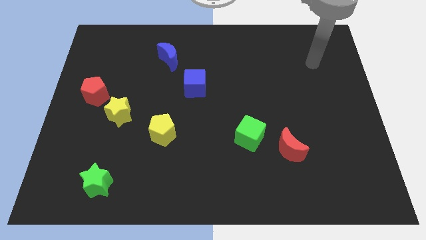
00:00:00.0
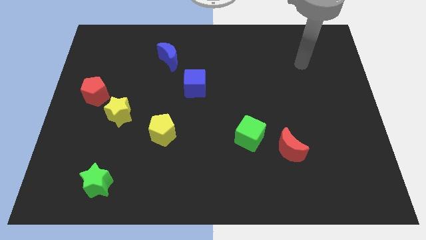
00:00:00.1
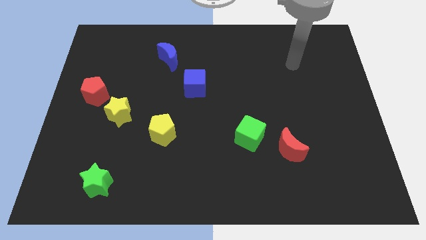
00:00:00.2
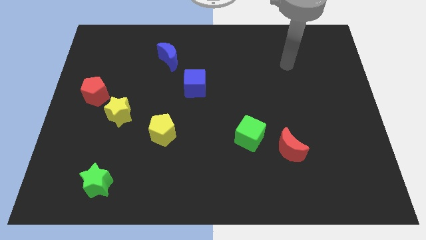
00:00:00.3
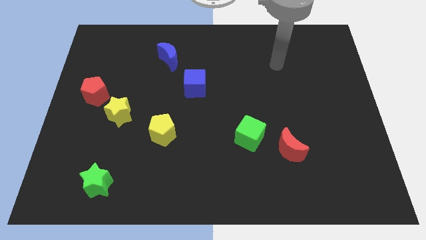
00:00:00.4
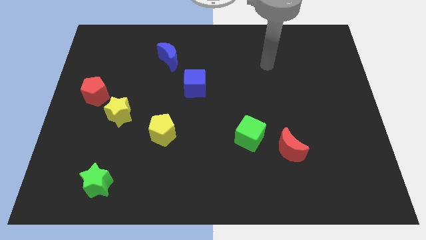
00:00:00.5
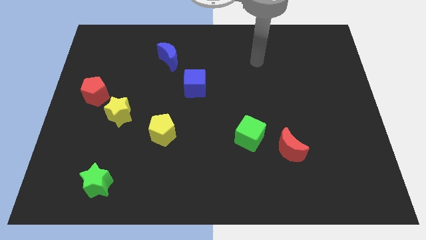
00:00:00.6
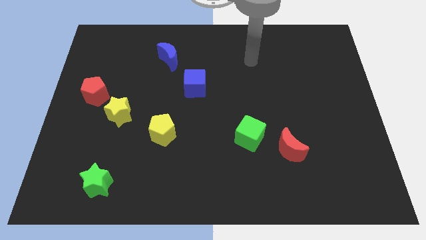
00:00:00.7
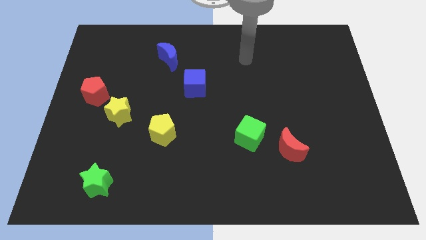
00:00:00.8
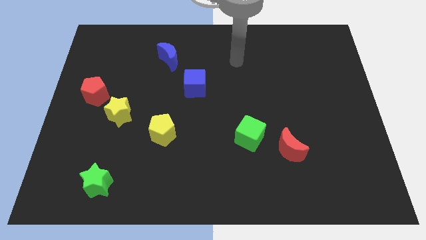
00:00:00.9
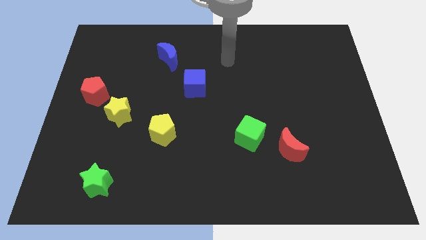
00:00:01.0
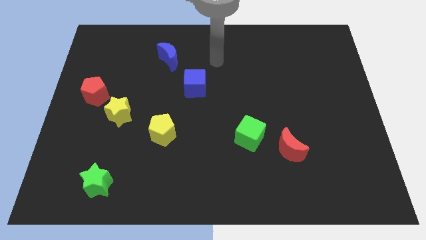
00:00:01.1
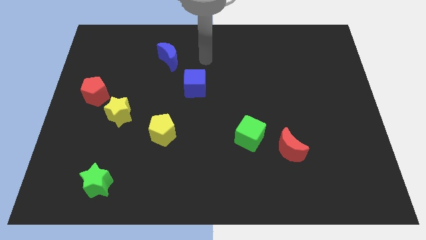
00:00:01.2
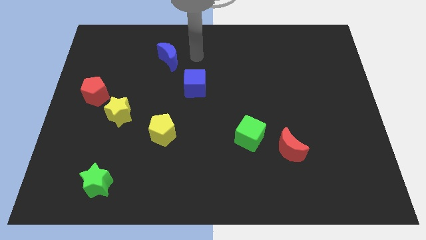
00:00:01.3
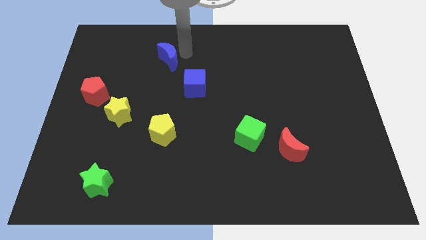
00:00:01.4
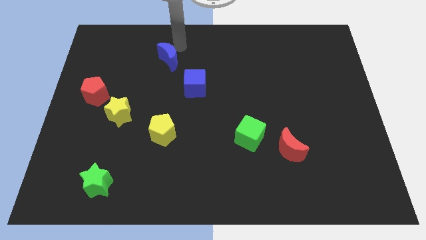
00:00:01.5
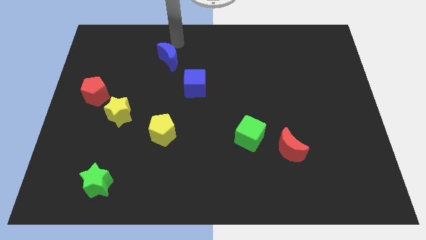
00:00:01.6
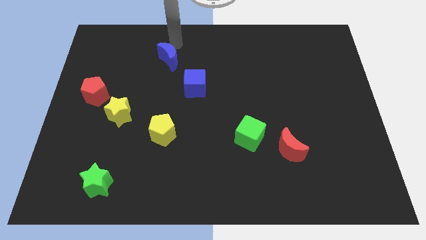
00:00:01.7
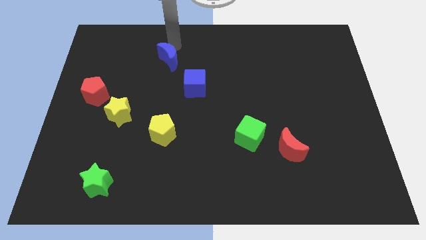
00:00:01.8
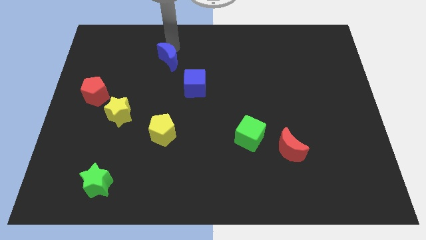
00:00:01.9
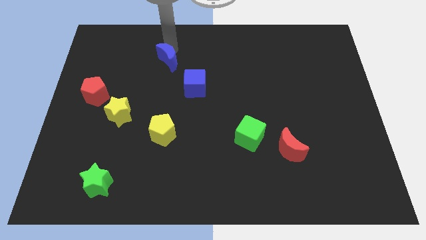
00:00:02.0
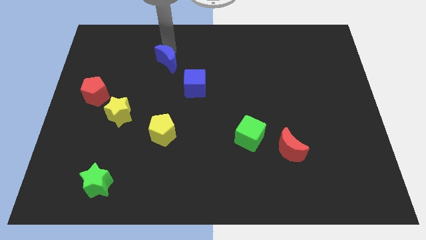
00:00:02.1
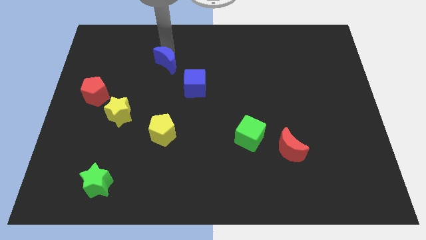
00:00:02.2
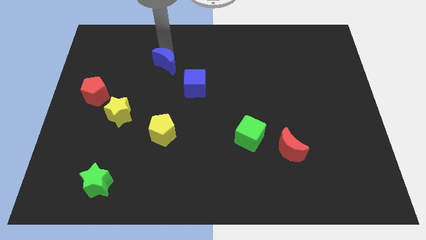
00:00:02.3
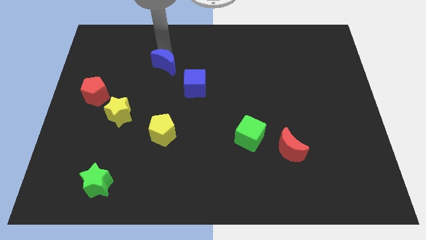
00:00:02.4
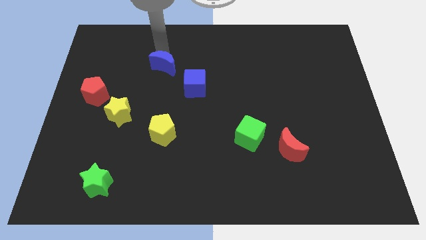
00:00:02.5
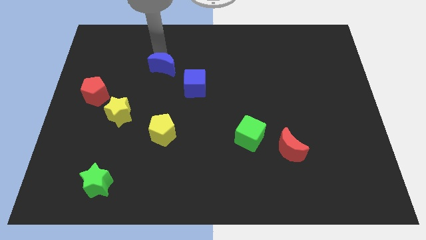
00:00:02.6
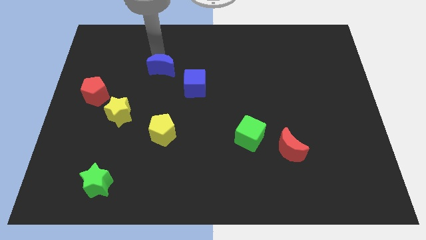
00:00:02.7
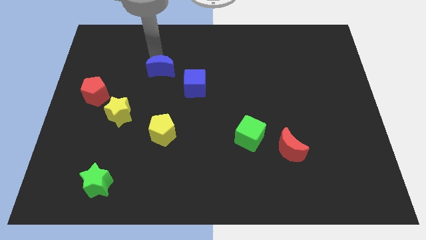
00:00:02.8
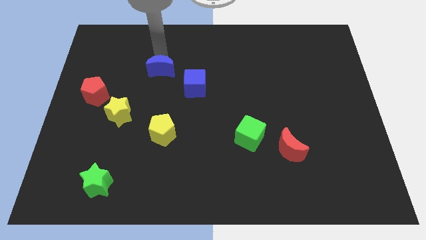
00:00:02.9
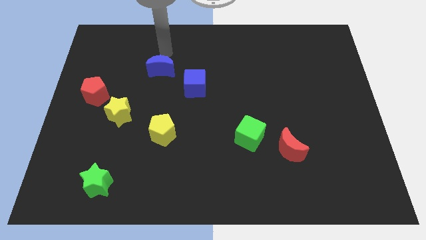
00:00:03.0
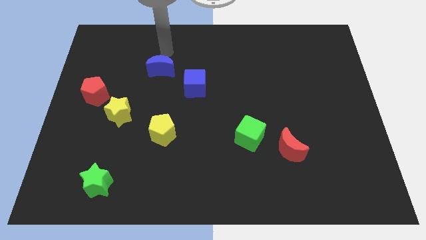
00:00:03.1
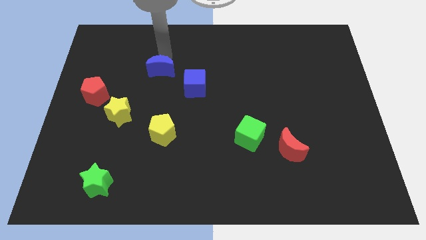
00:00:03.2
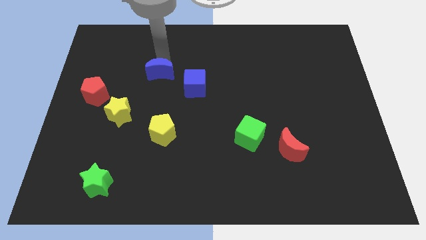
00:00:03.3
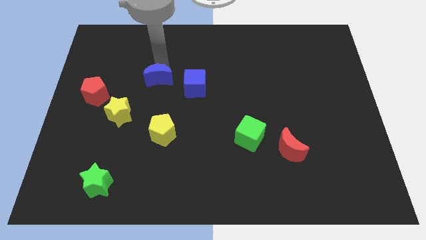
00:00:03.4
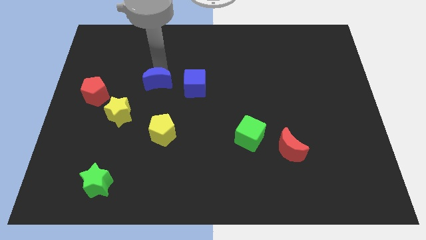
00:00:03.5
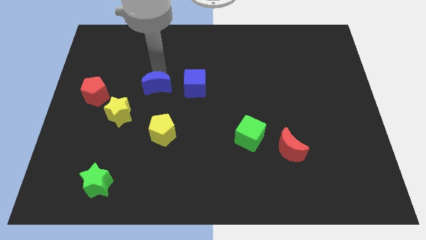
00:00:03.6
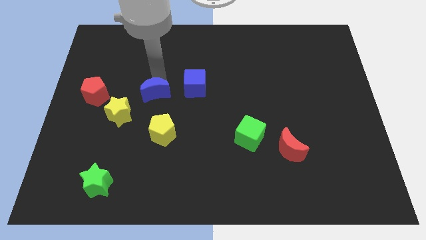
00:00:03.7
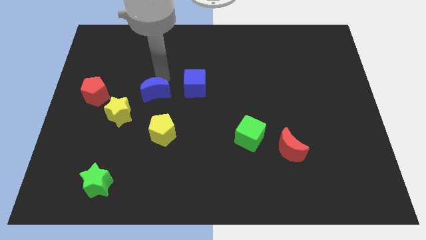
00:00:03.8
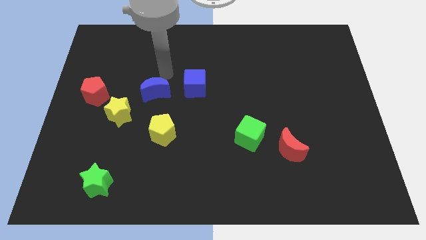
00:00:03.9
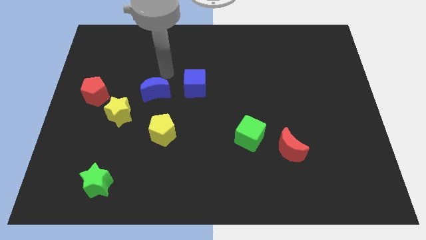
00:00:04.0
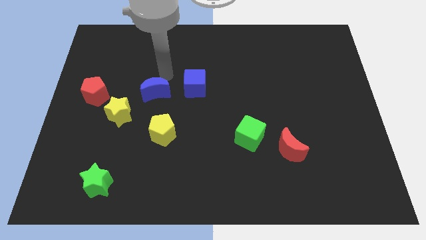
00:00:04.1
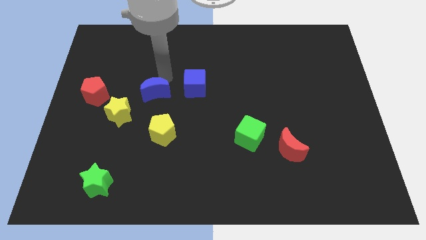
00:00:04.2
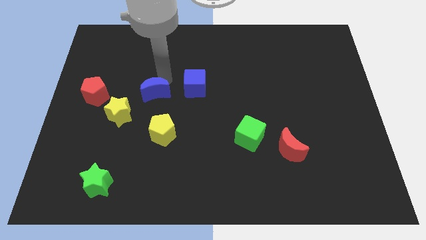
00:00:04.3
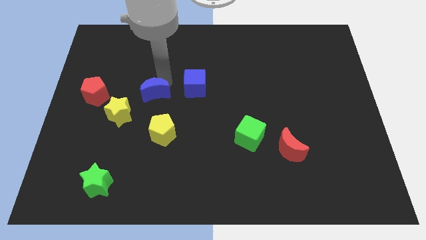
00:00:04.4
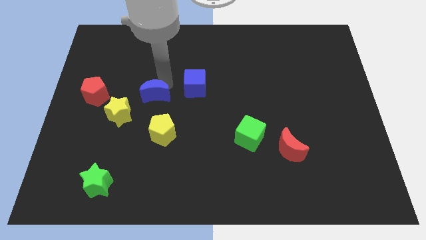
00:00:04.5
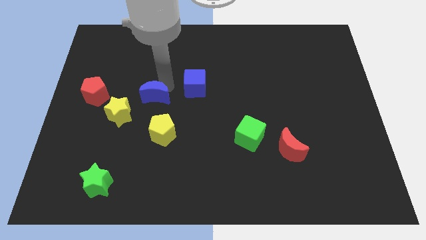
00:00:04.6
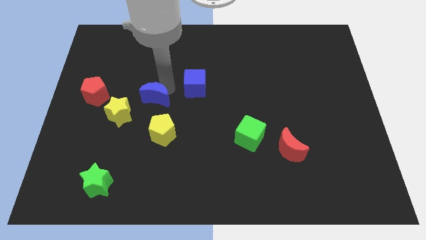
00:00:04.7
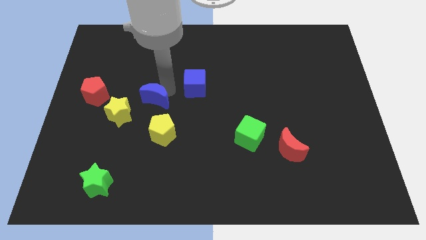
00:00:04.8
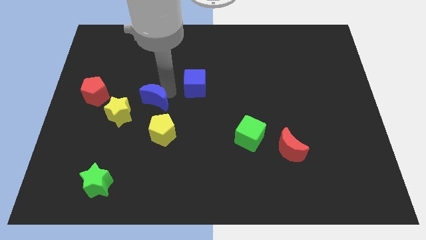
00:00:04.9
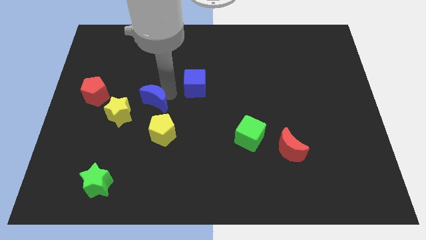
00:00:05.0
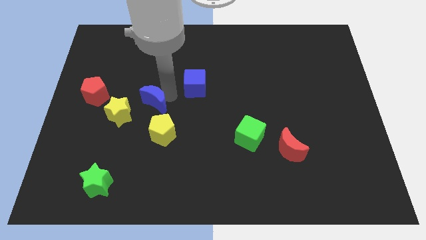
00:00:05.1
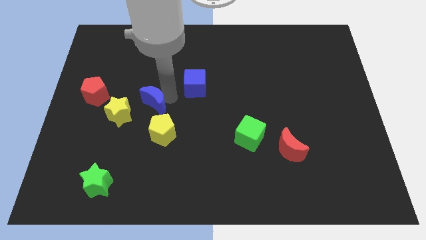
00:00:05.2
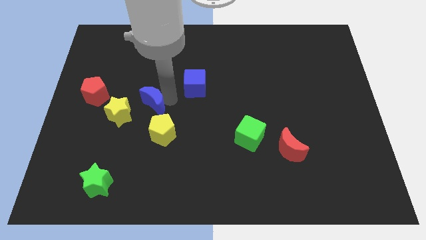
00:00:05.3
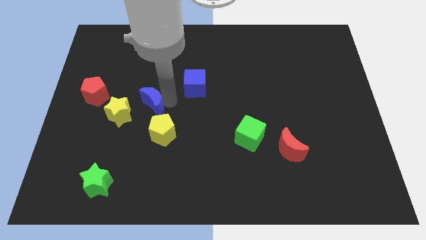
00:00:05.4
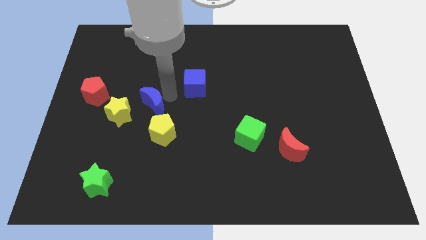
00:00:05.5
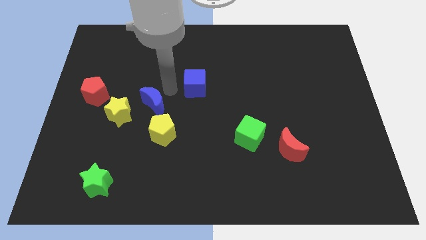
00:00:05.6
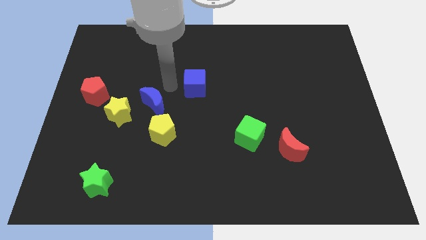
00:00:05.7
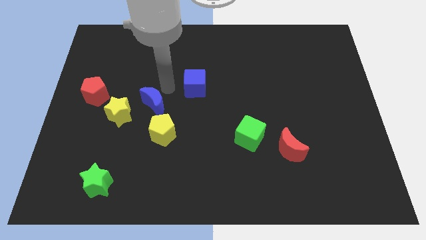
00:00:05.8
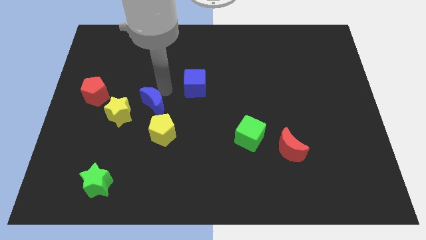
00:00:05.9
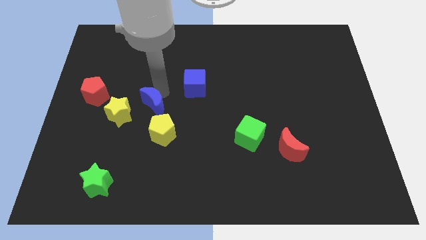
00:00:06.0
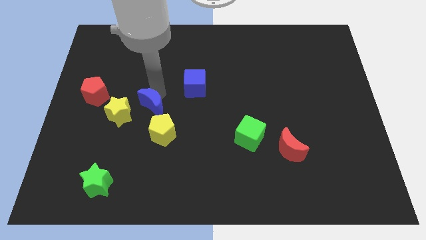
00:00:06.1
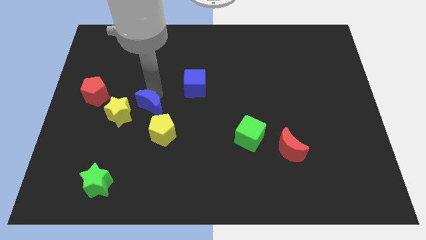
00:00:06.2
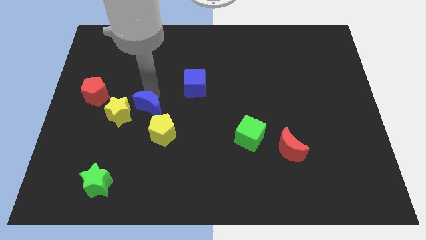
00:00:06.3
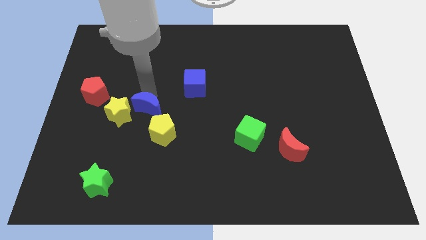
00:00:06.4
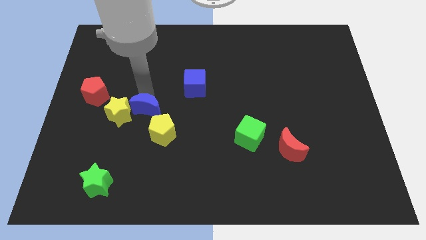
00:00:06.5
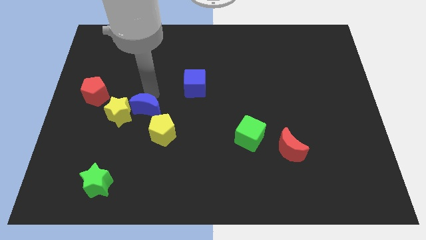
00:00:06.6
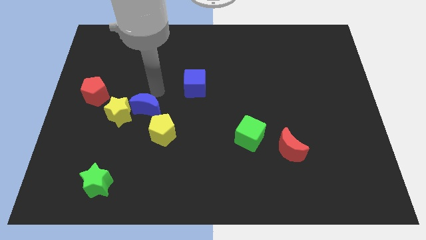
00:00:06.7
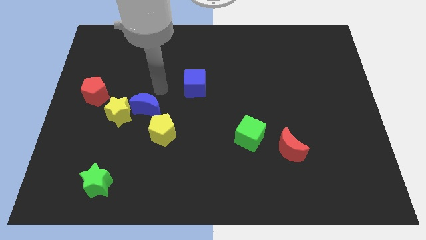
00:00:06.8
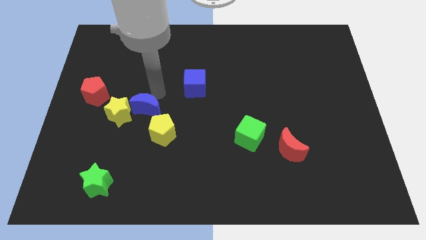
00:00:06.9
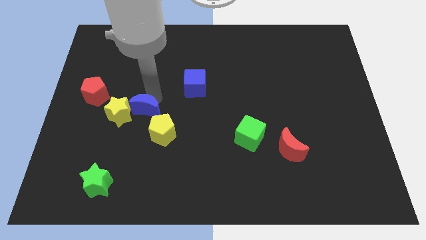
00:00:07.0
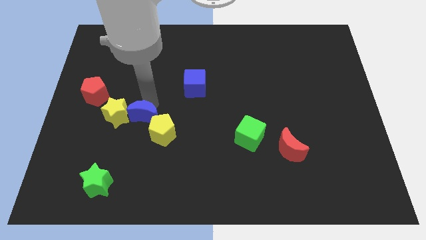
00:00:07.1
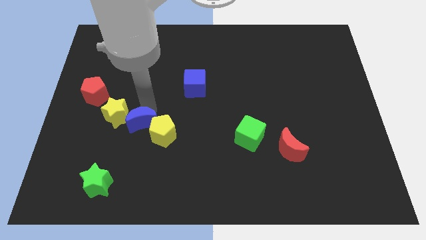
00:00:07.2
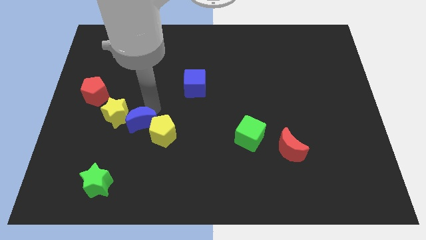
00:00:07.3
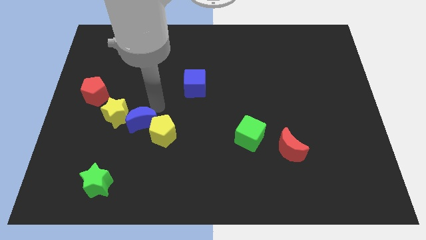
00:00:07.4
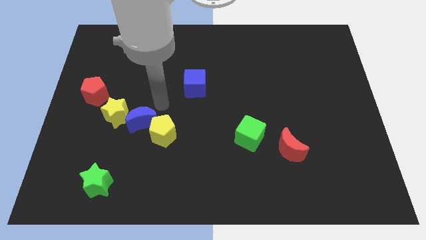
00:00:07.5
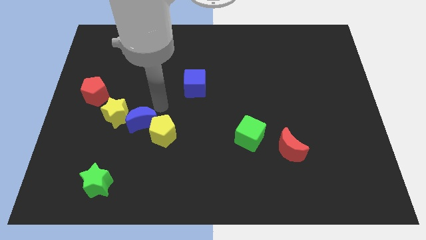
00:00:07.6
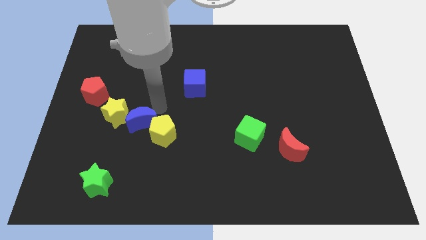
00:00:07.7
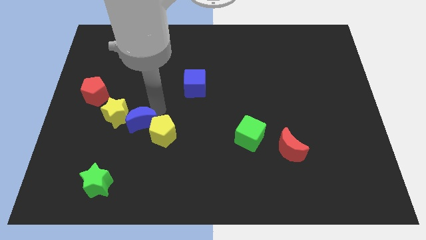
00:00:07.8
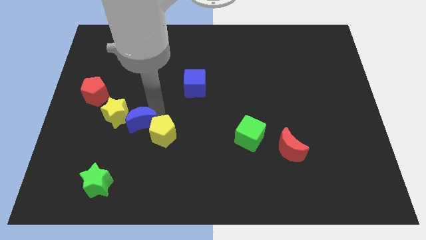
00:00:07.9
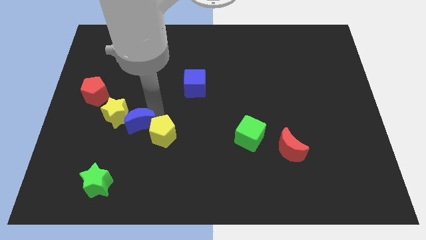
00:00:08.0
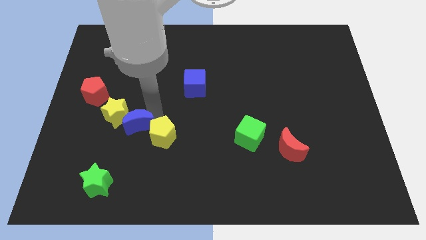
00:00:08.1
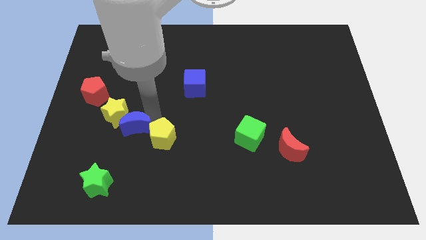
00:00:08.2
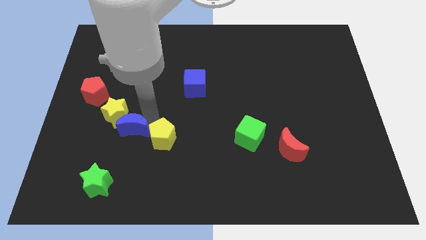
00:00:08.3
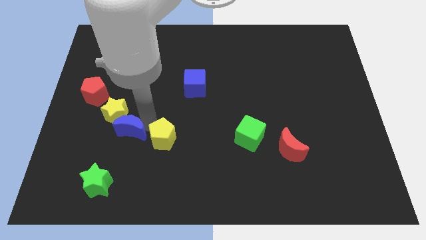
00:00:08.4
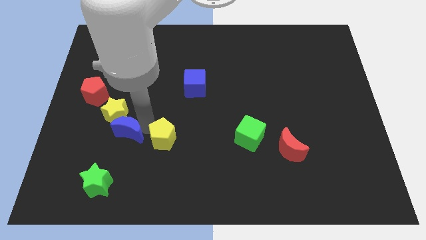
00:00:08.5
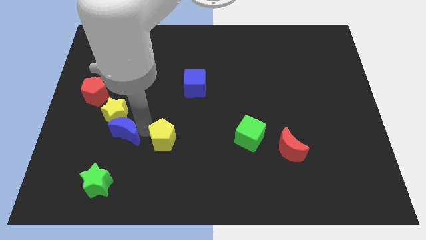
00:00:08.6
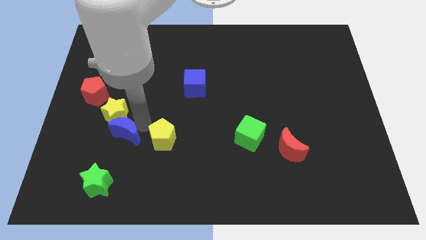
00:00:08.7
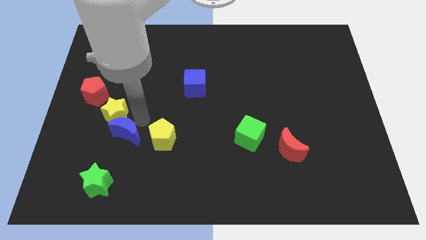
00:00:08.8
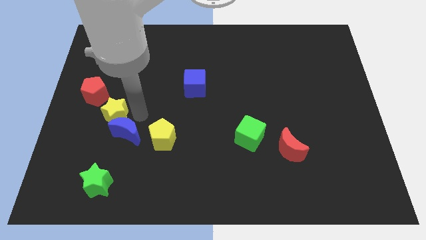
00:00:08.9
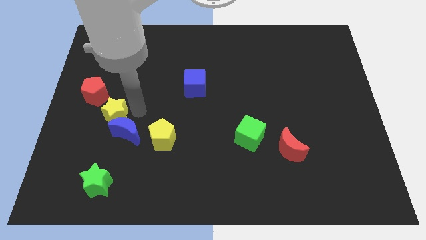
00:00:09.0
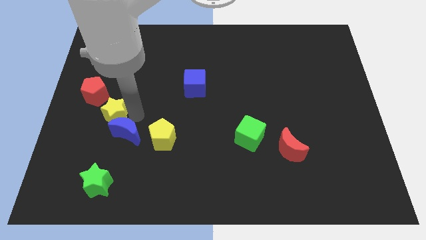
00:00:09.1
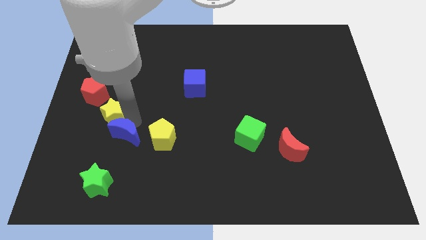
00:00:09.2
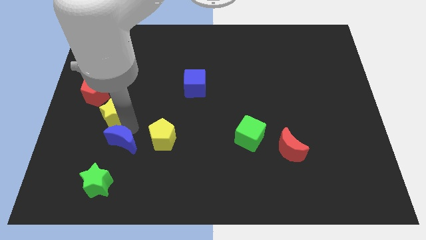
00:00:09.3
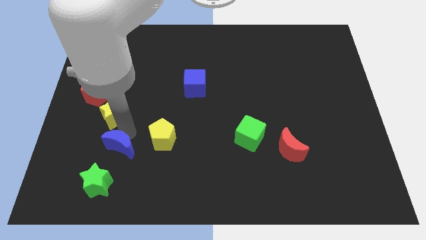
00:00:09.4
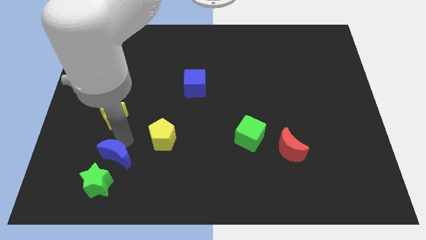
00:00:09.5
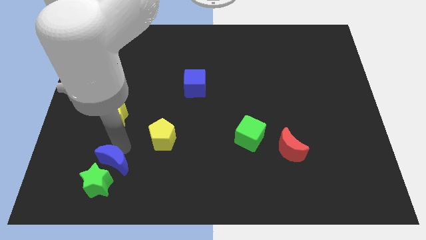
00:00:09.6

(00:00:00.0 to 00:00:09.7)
put the blue moon close to the green star
